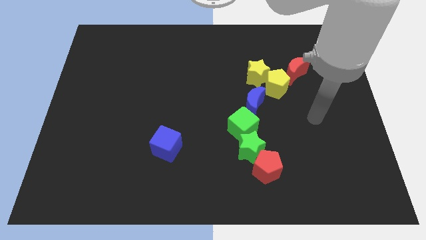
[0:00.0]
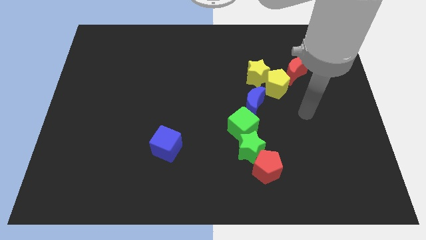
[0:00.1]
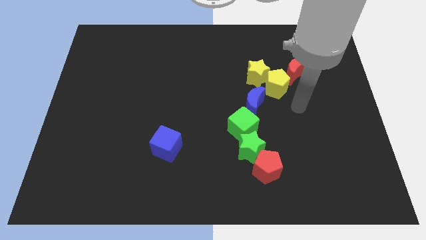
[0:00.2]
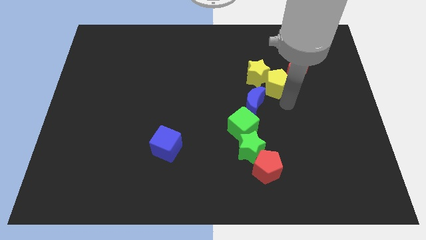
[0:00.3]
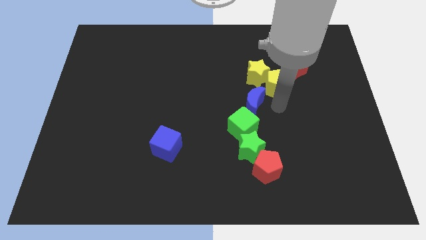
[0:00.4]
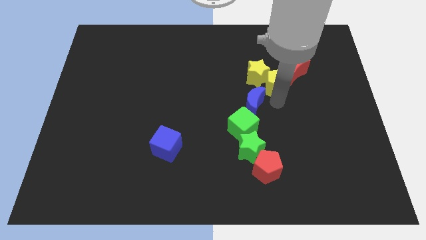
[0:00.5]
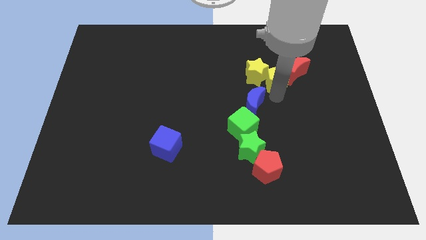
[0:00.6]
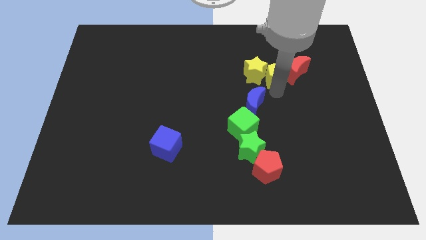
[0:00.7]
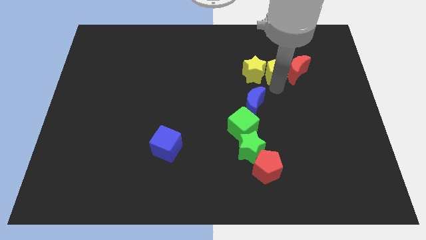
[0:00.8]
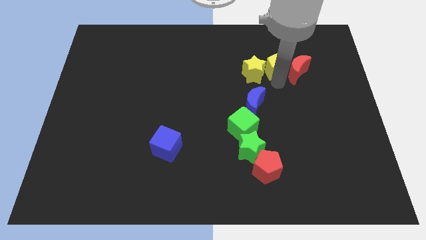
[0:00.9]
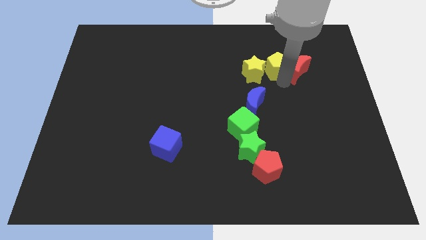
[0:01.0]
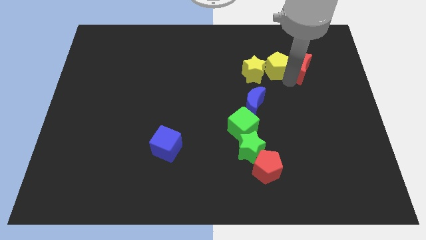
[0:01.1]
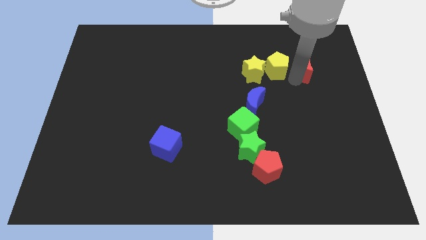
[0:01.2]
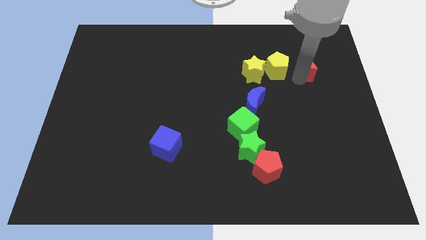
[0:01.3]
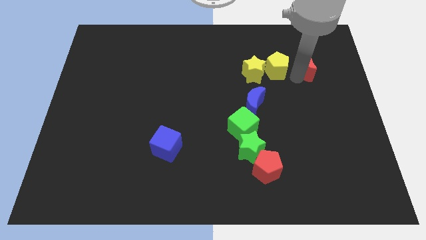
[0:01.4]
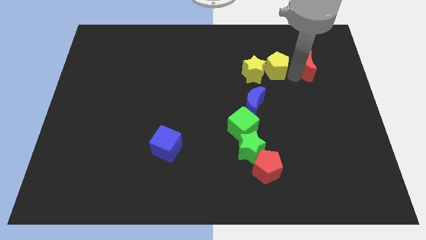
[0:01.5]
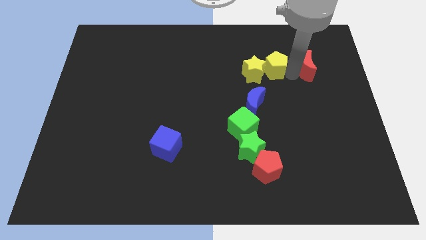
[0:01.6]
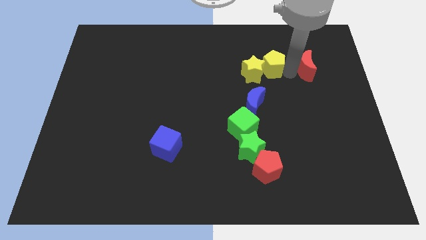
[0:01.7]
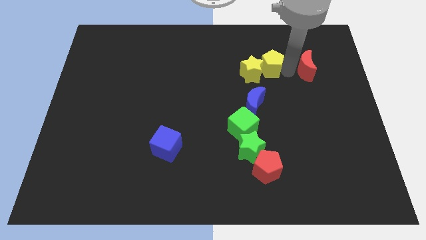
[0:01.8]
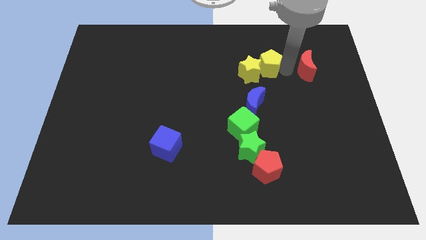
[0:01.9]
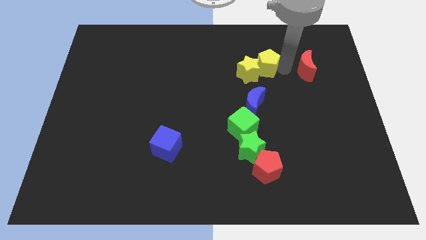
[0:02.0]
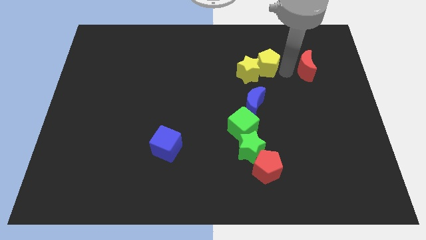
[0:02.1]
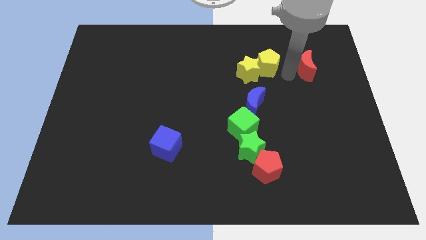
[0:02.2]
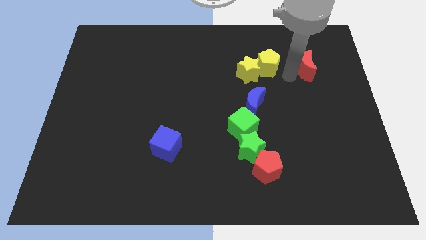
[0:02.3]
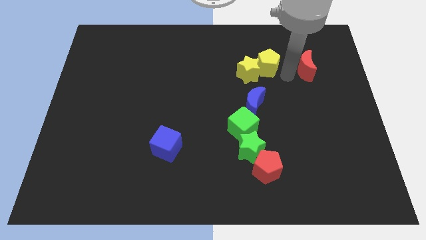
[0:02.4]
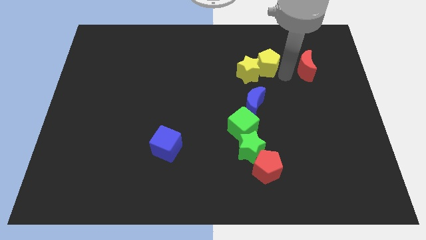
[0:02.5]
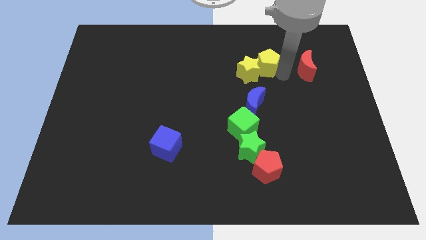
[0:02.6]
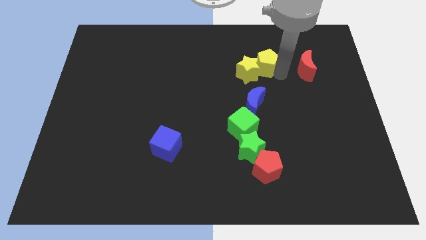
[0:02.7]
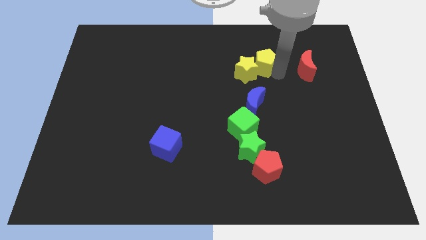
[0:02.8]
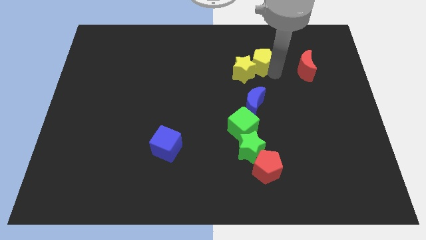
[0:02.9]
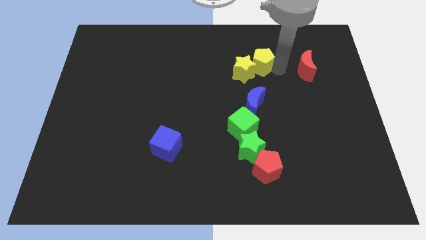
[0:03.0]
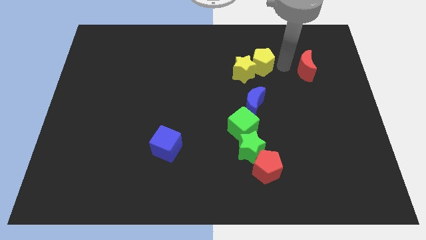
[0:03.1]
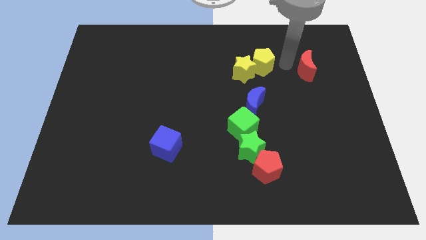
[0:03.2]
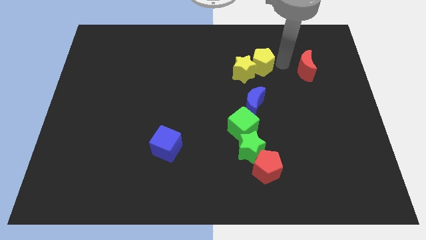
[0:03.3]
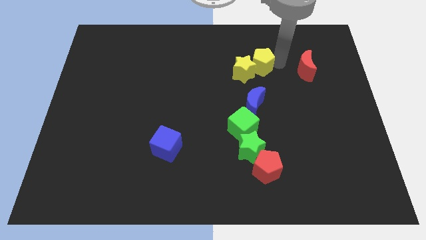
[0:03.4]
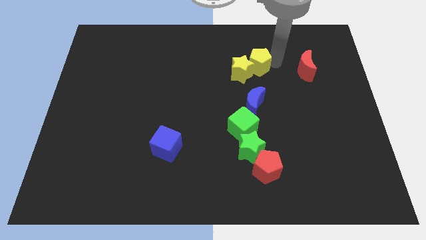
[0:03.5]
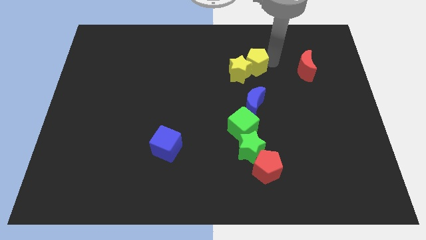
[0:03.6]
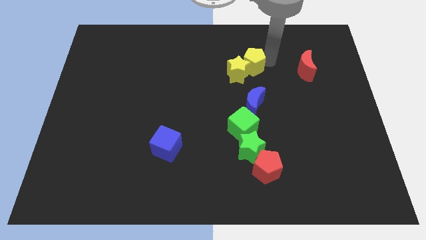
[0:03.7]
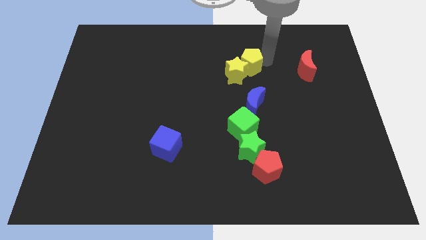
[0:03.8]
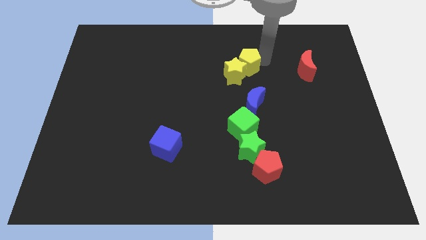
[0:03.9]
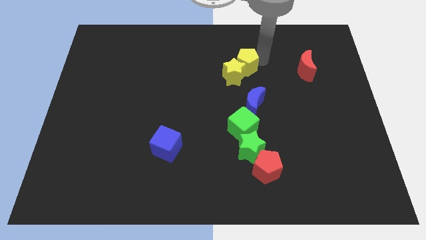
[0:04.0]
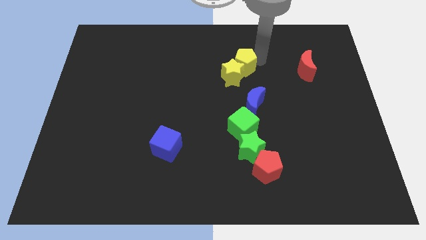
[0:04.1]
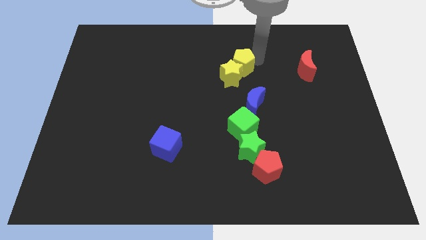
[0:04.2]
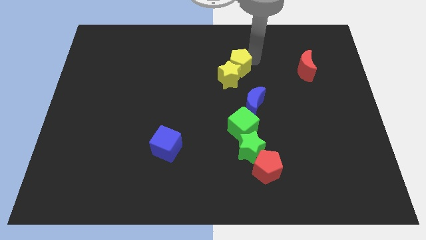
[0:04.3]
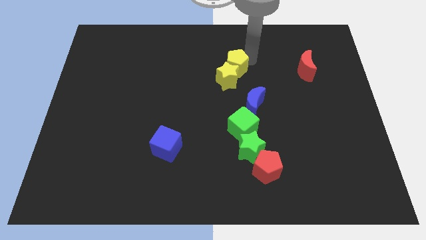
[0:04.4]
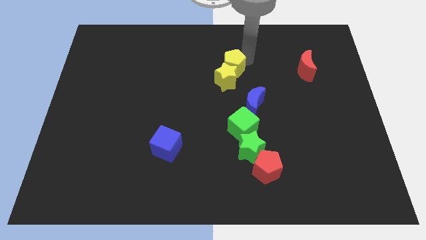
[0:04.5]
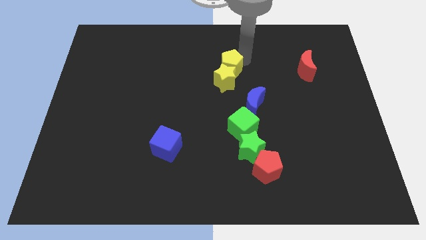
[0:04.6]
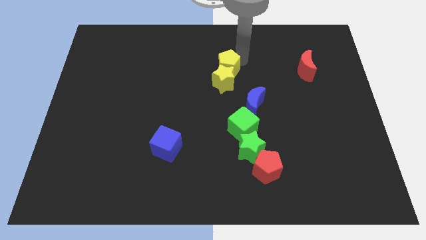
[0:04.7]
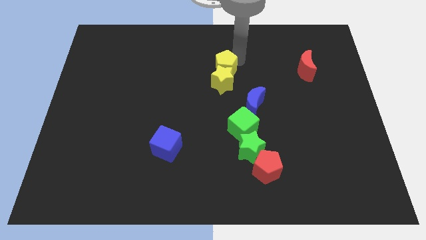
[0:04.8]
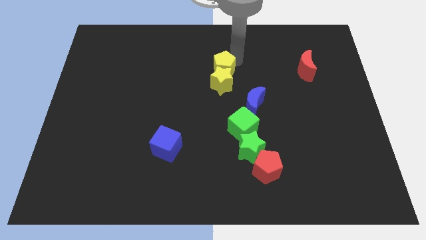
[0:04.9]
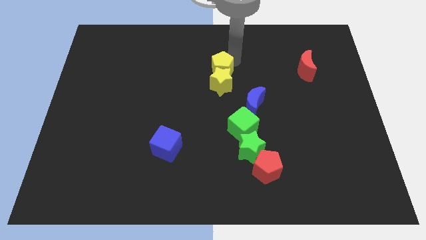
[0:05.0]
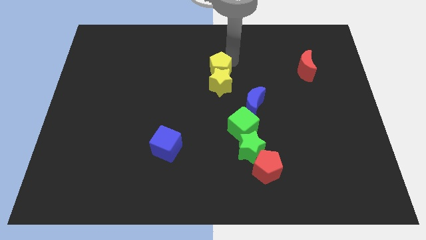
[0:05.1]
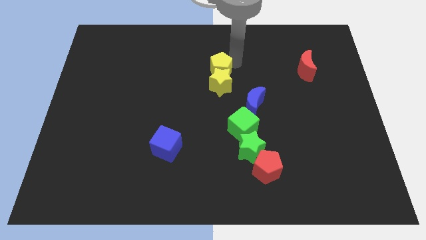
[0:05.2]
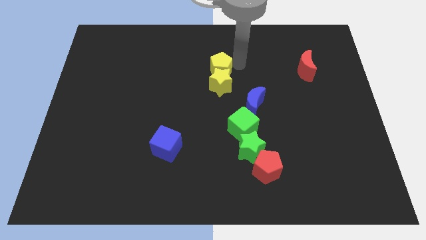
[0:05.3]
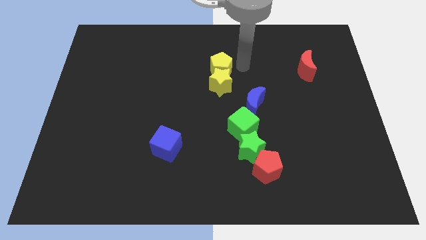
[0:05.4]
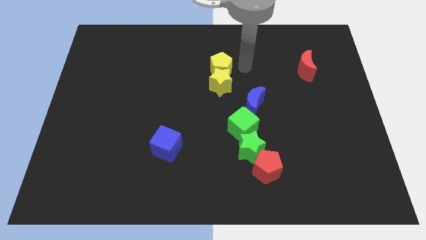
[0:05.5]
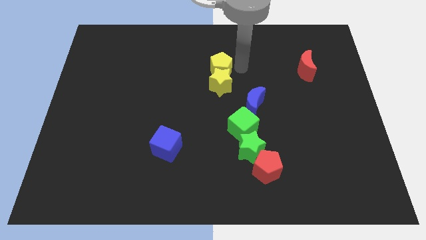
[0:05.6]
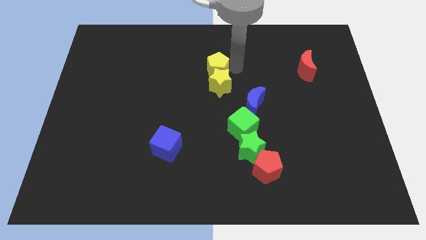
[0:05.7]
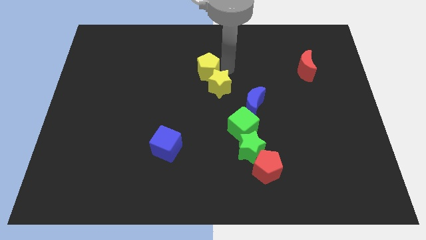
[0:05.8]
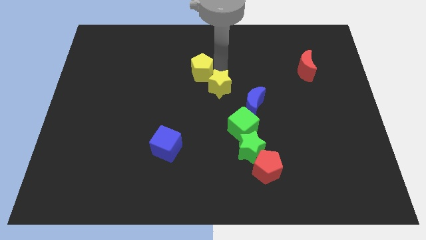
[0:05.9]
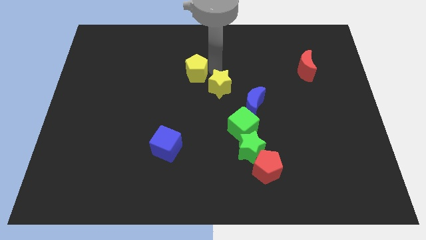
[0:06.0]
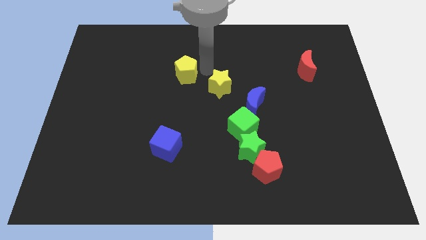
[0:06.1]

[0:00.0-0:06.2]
slide the yellow pentagon to the left

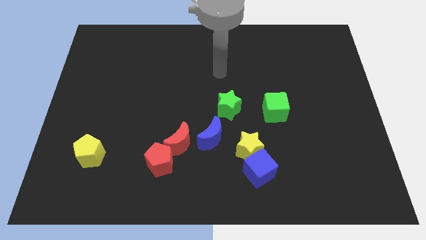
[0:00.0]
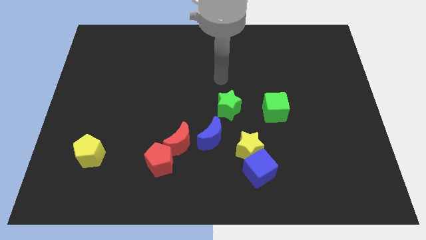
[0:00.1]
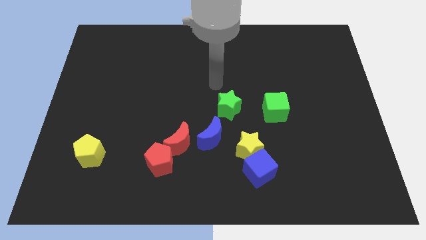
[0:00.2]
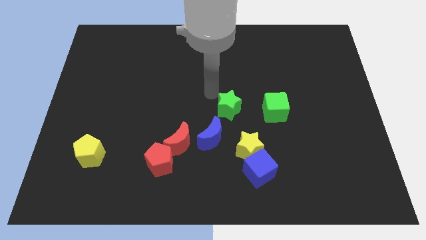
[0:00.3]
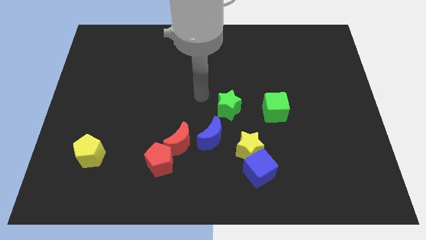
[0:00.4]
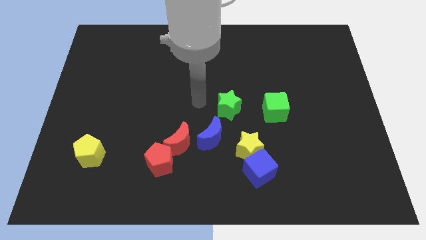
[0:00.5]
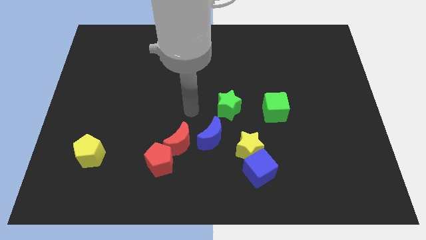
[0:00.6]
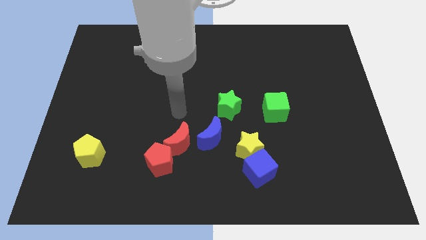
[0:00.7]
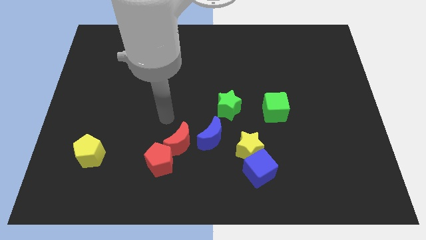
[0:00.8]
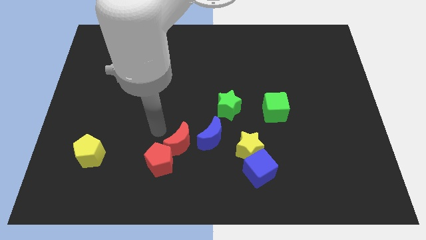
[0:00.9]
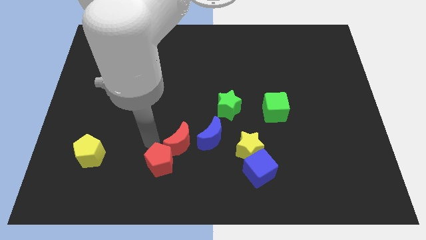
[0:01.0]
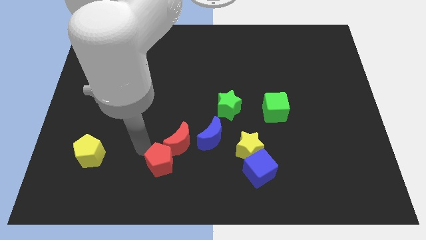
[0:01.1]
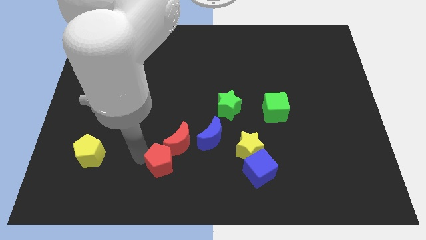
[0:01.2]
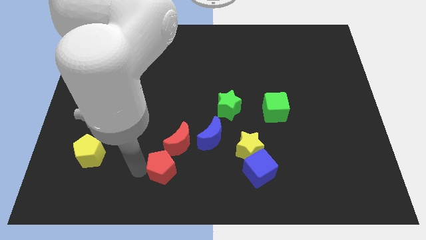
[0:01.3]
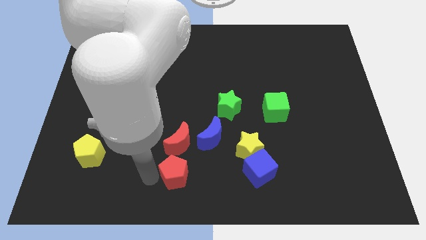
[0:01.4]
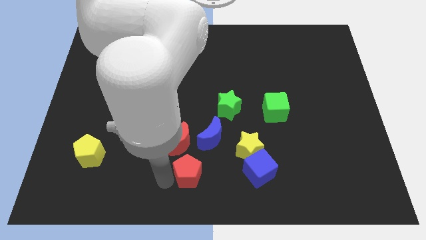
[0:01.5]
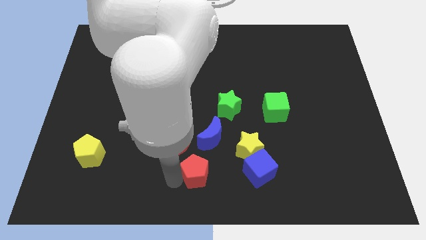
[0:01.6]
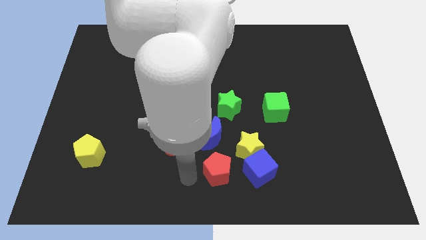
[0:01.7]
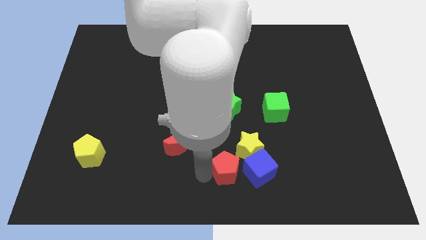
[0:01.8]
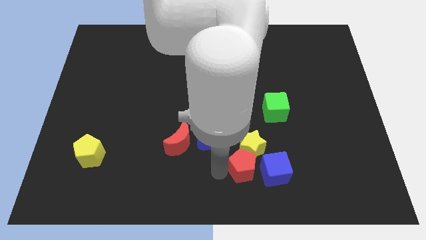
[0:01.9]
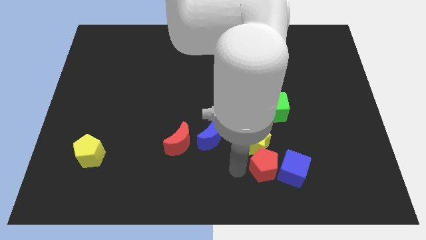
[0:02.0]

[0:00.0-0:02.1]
move the blue cube right a bit
